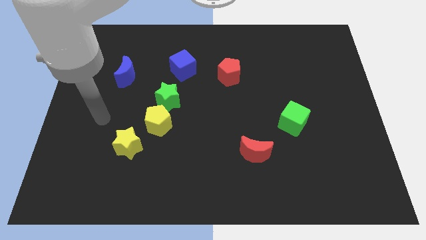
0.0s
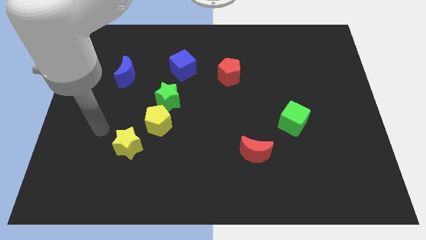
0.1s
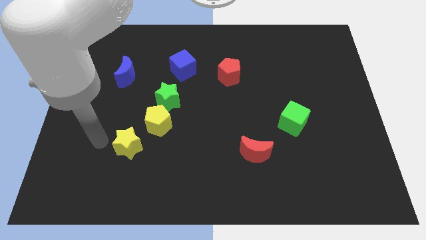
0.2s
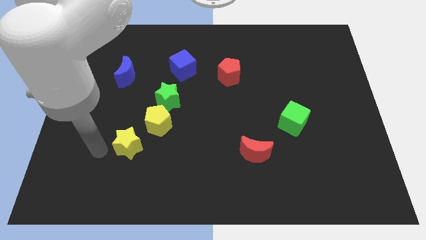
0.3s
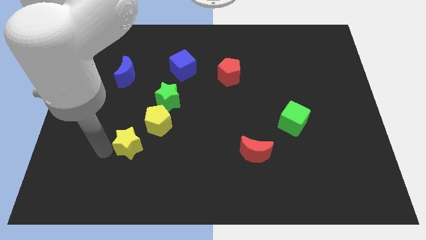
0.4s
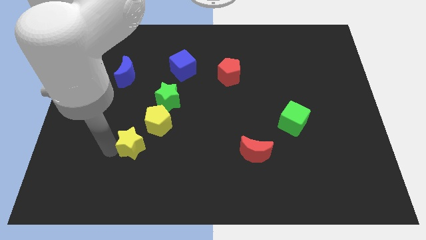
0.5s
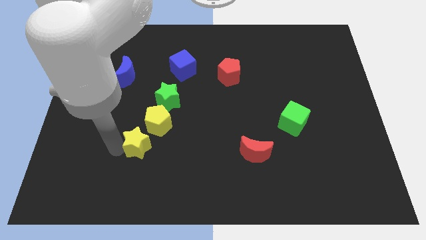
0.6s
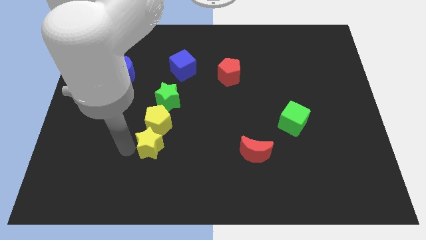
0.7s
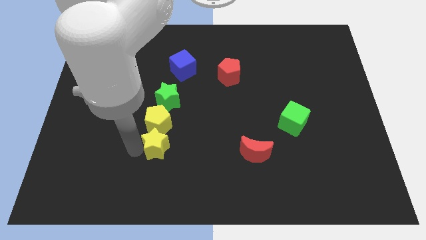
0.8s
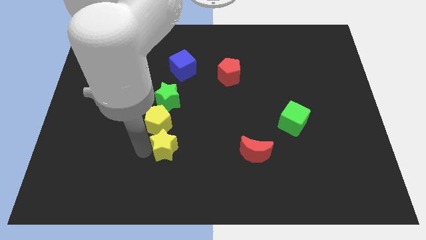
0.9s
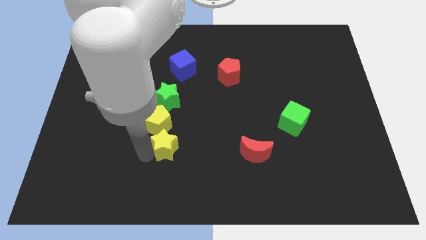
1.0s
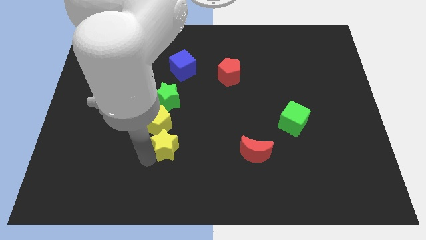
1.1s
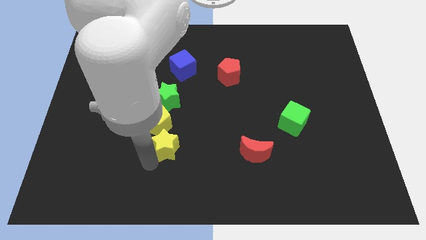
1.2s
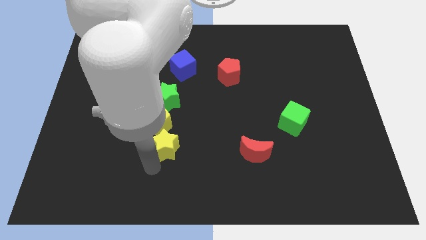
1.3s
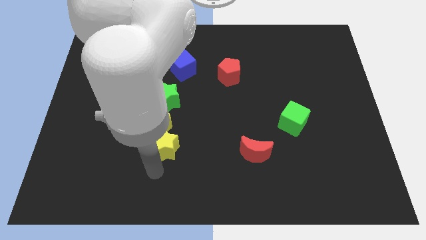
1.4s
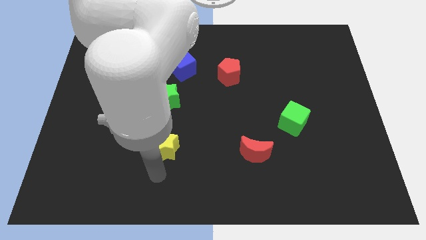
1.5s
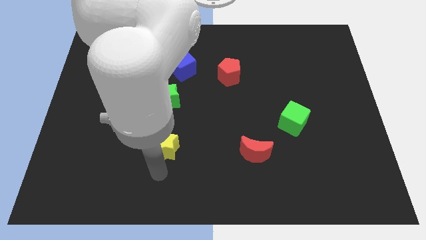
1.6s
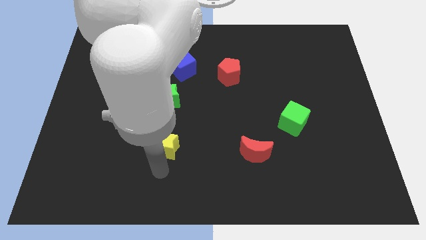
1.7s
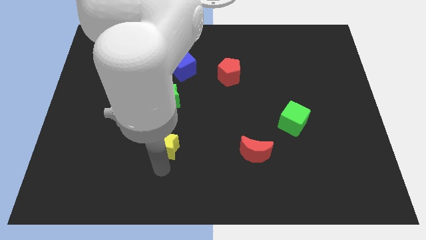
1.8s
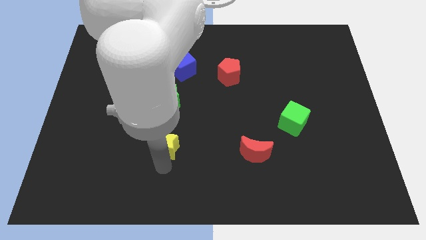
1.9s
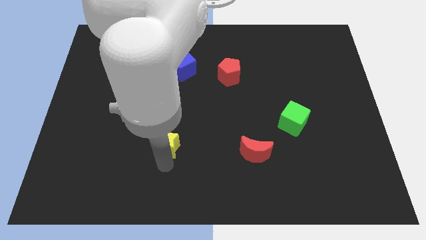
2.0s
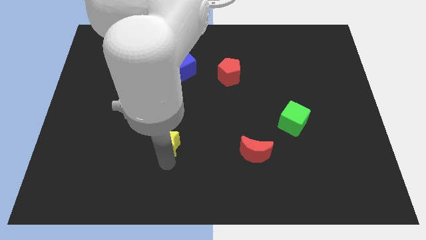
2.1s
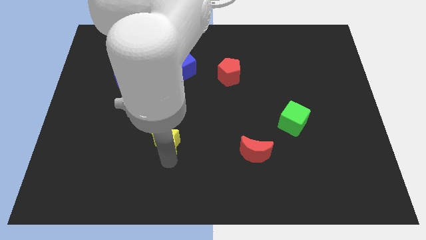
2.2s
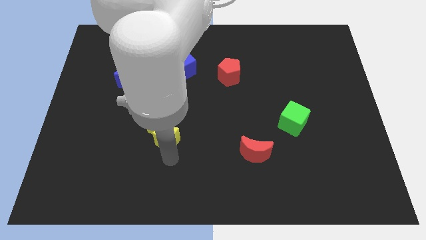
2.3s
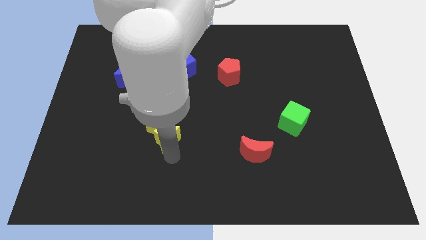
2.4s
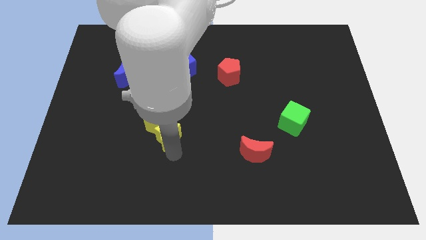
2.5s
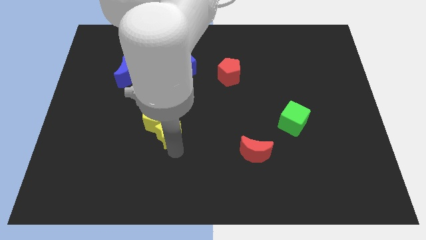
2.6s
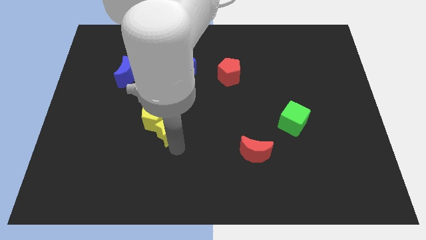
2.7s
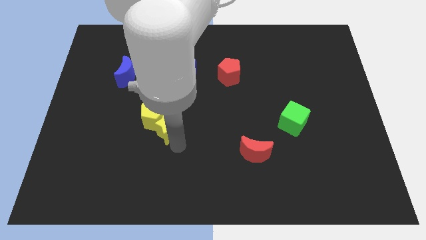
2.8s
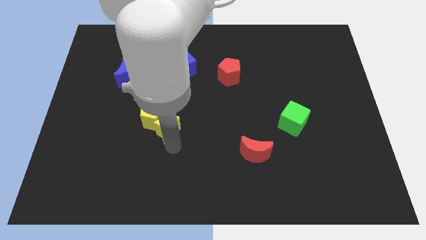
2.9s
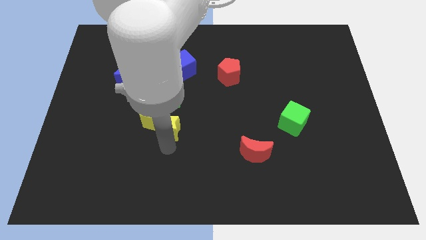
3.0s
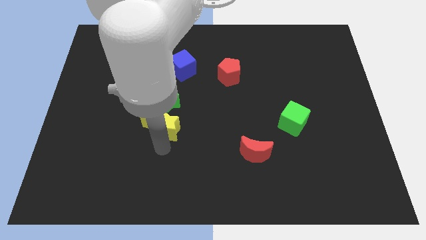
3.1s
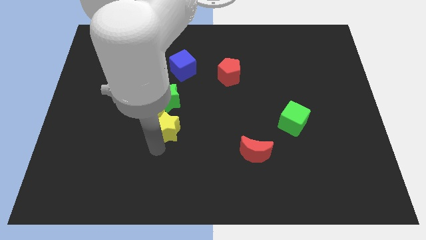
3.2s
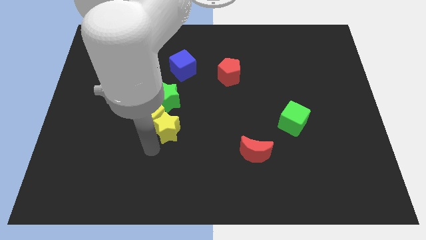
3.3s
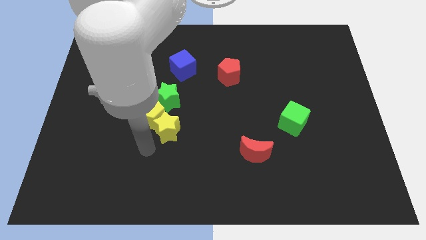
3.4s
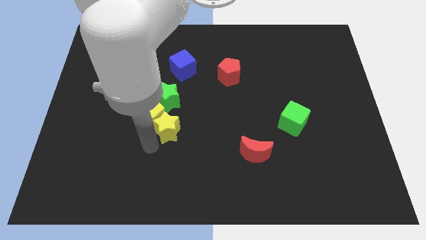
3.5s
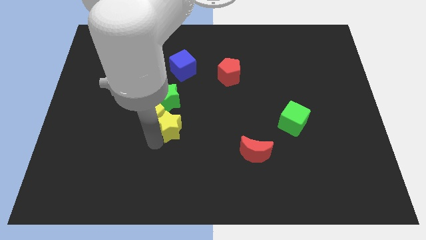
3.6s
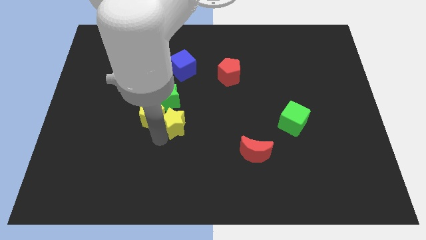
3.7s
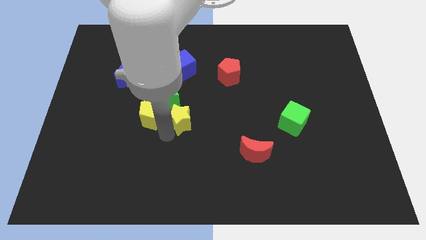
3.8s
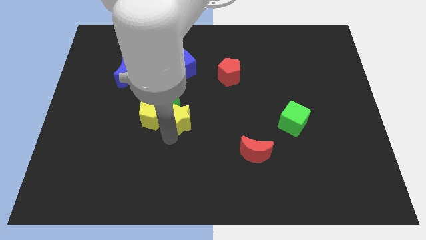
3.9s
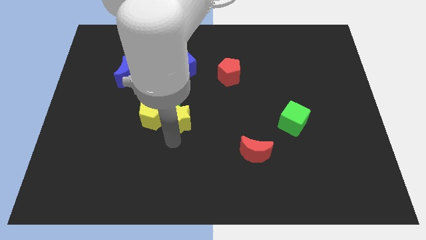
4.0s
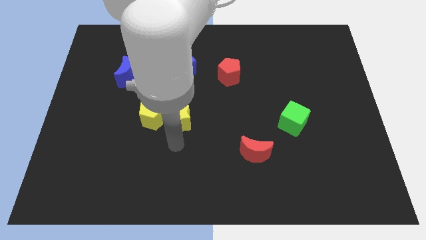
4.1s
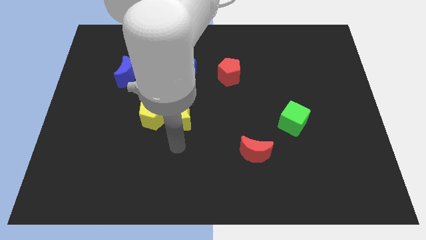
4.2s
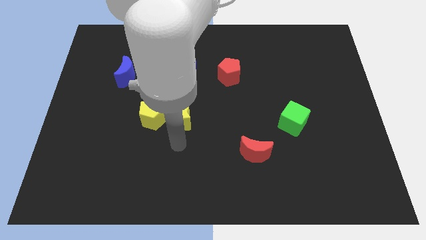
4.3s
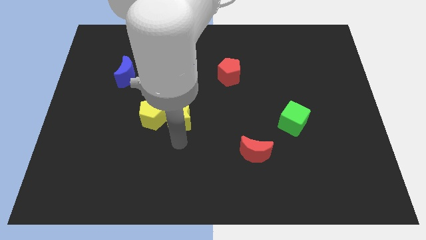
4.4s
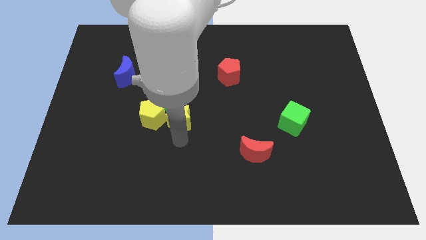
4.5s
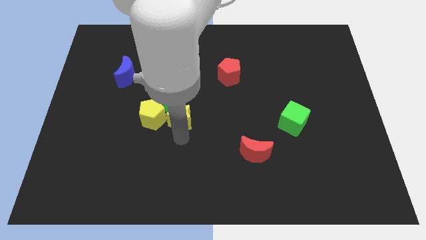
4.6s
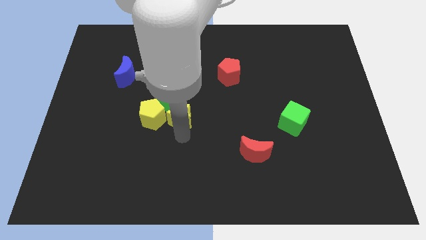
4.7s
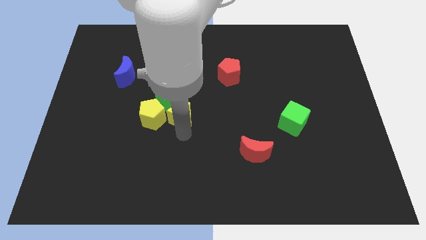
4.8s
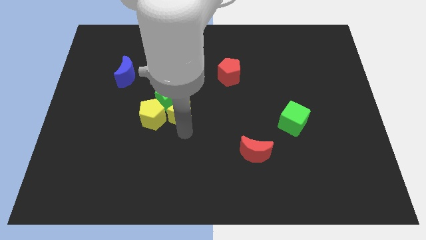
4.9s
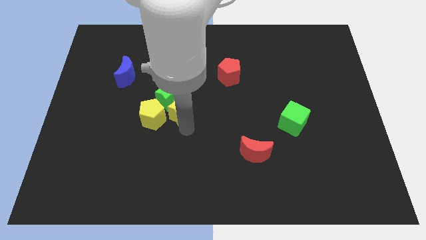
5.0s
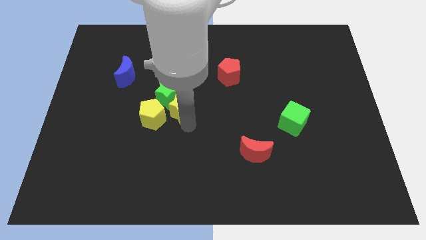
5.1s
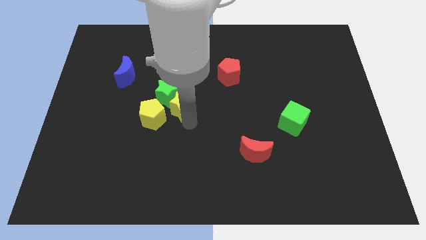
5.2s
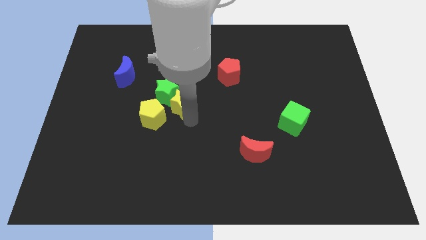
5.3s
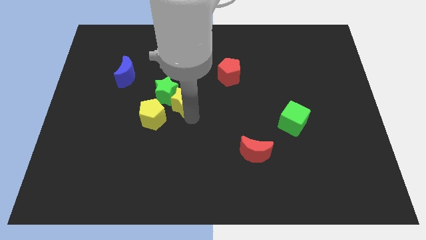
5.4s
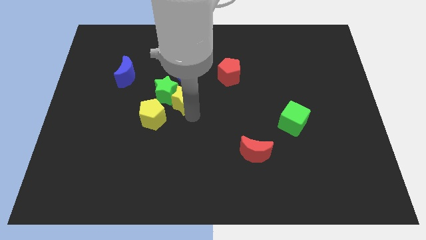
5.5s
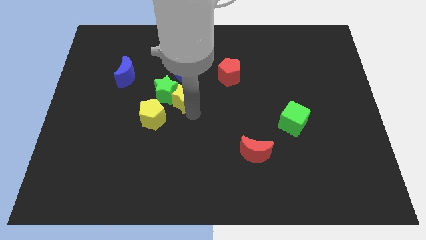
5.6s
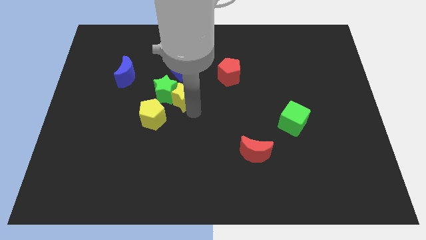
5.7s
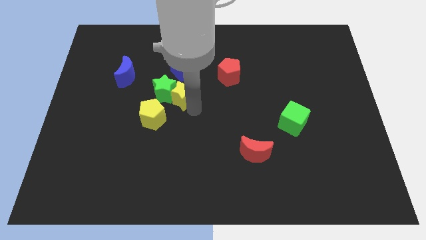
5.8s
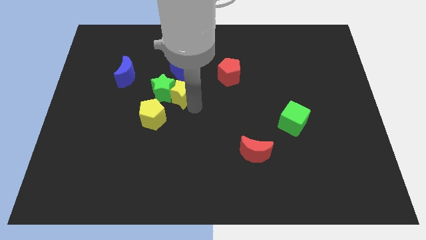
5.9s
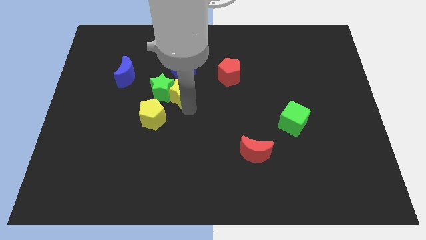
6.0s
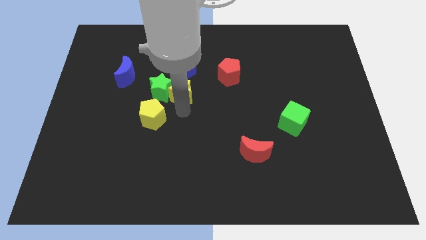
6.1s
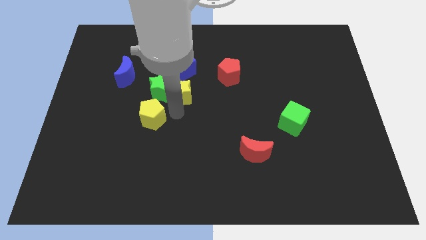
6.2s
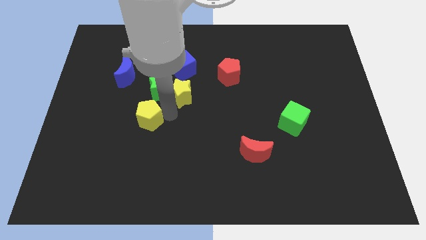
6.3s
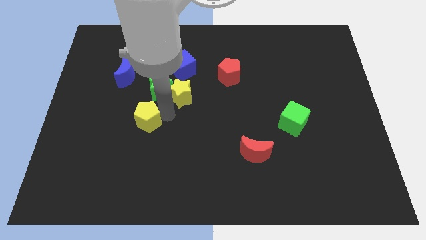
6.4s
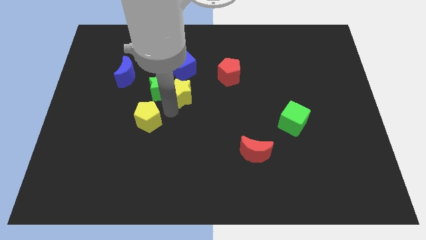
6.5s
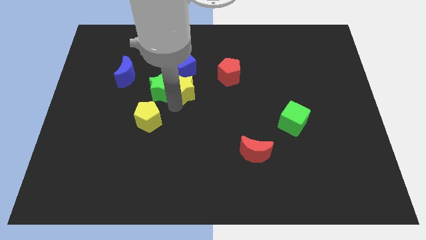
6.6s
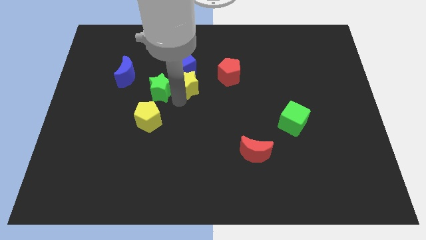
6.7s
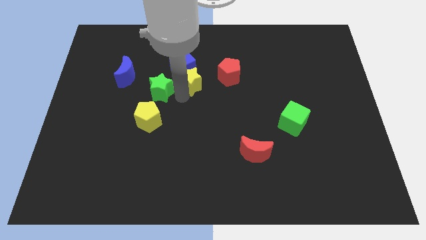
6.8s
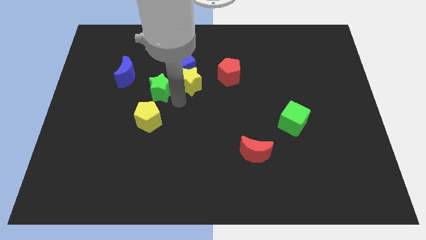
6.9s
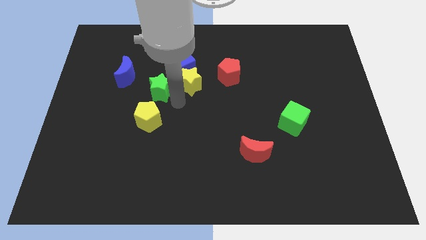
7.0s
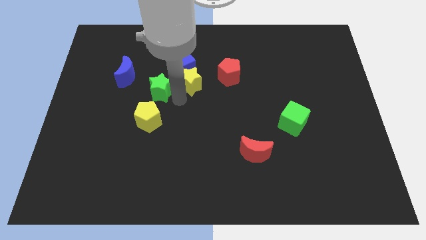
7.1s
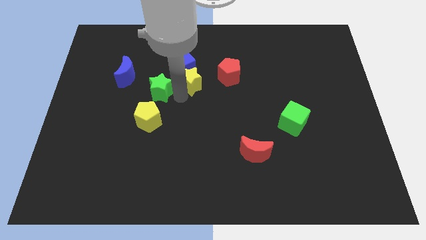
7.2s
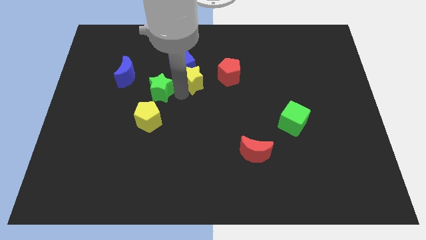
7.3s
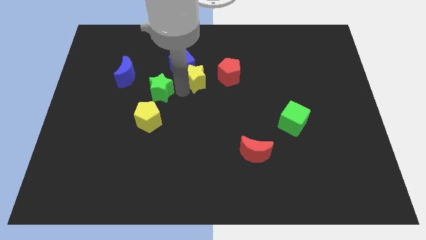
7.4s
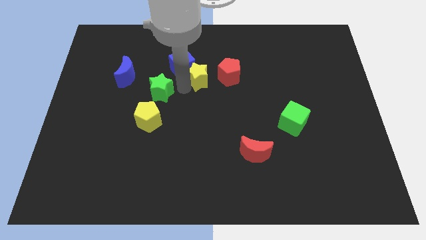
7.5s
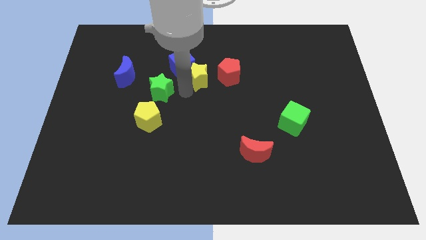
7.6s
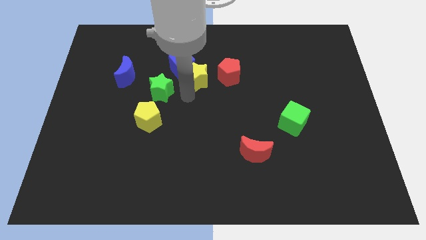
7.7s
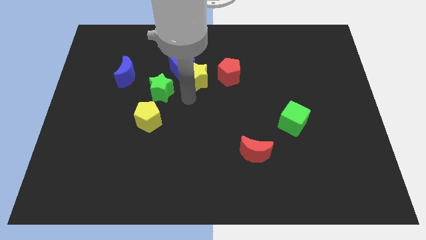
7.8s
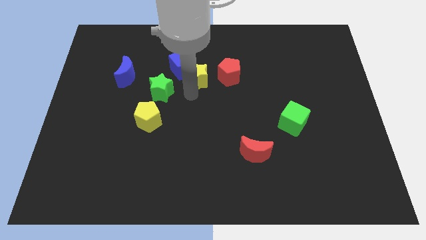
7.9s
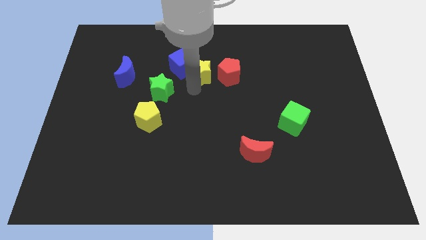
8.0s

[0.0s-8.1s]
put the yellow star diagonally up and to the left of the red pentagon
